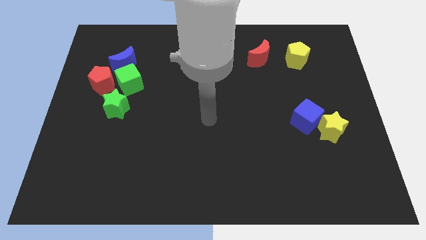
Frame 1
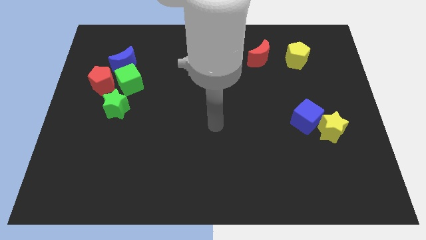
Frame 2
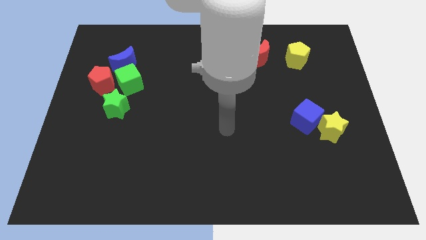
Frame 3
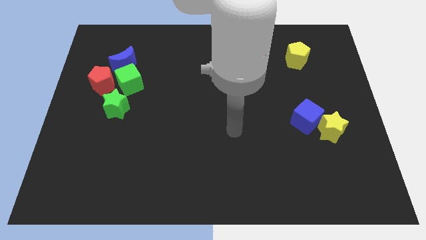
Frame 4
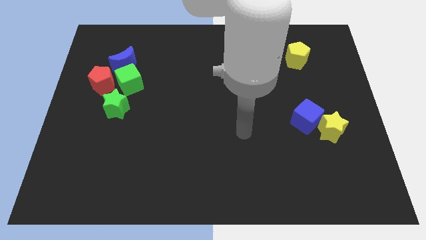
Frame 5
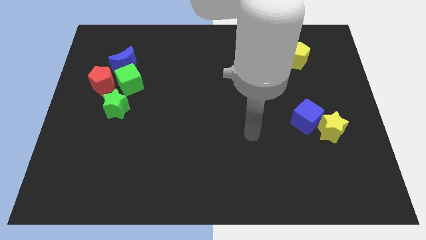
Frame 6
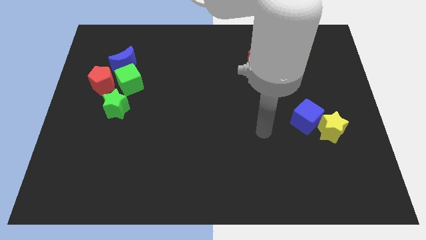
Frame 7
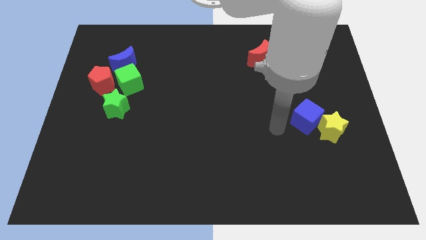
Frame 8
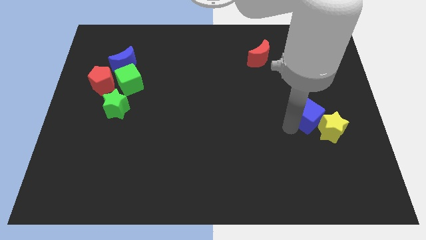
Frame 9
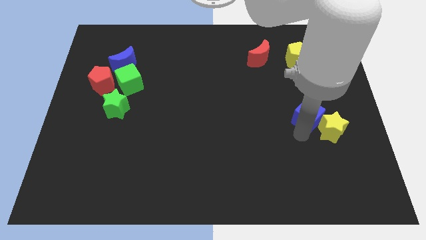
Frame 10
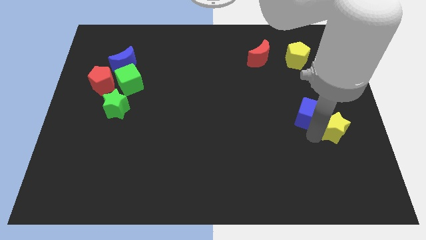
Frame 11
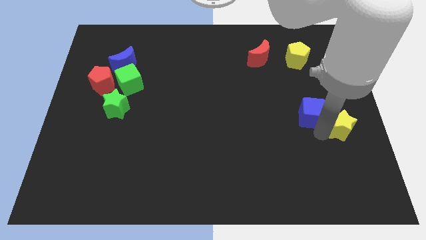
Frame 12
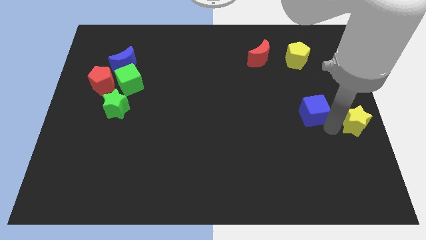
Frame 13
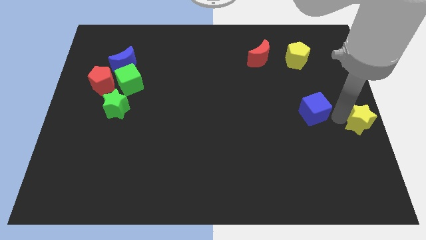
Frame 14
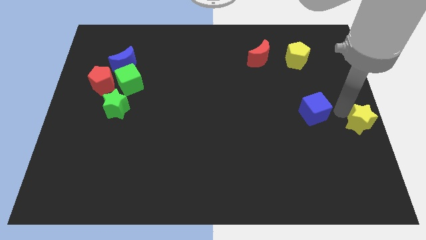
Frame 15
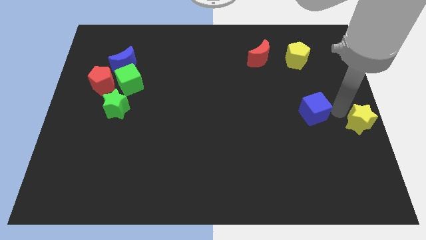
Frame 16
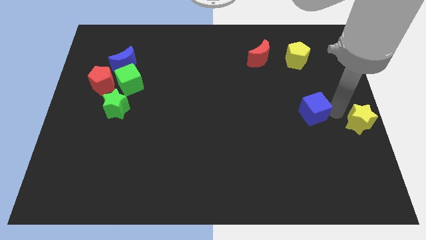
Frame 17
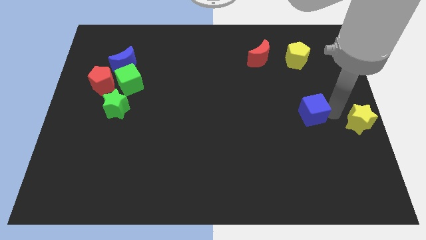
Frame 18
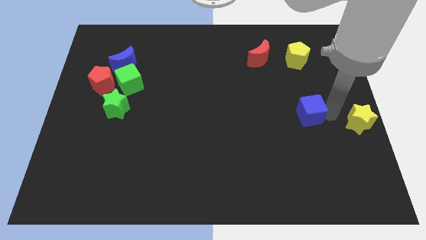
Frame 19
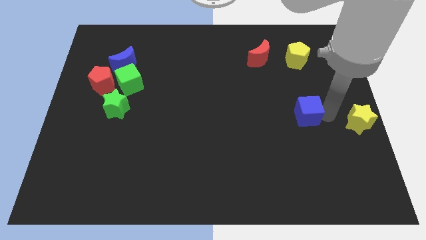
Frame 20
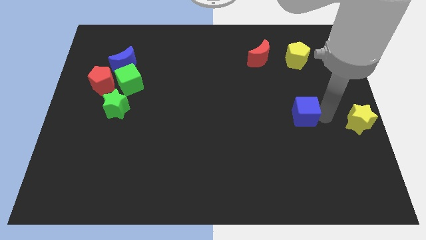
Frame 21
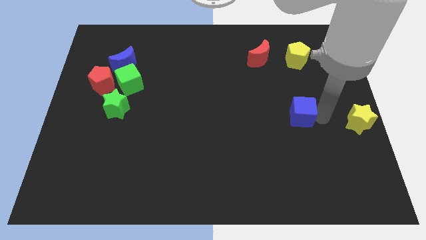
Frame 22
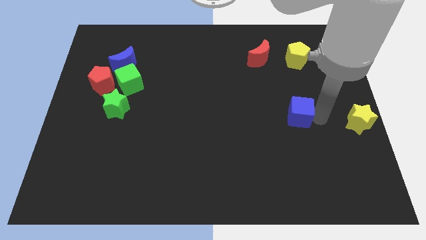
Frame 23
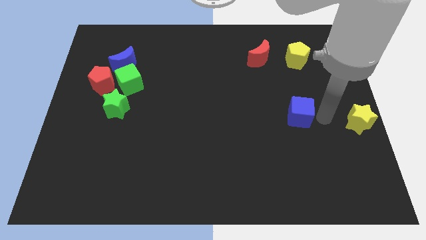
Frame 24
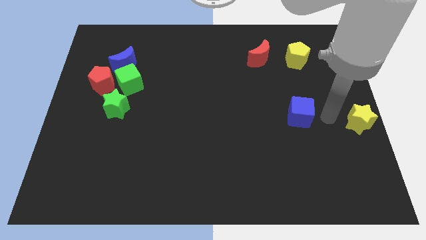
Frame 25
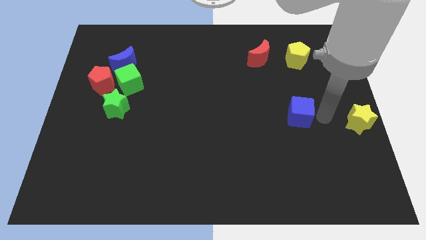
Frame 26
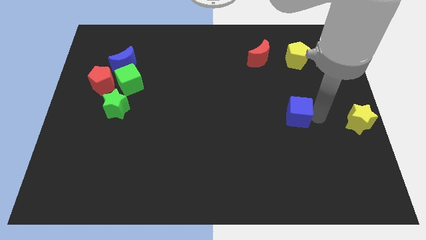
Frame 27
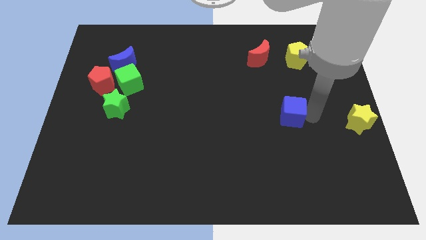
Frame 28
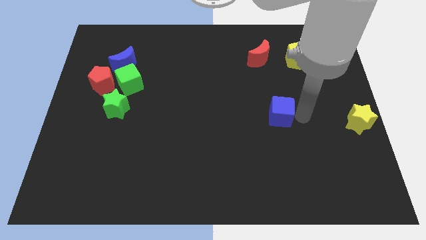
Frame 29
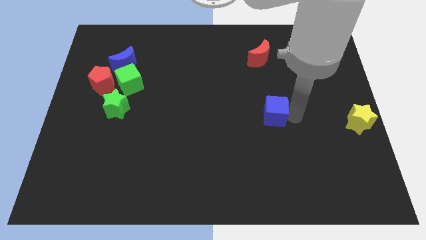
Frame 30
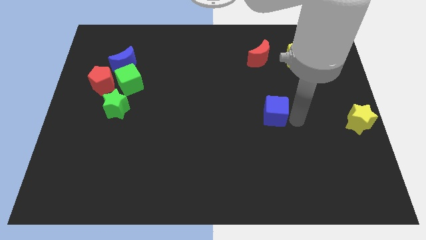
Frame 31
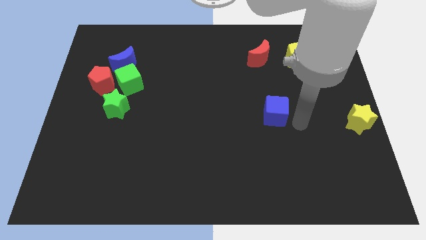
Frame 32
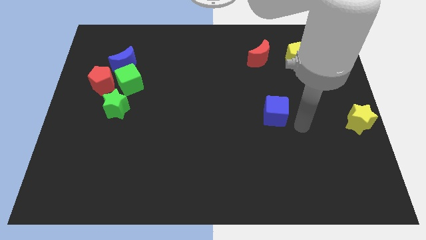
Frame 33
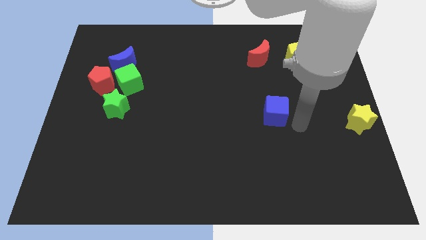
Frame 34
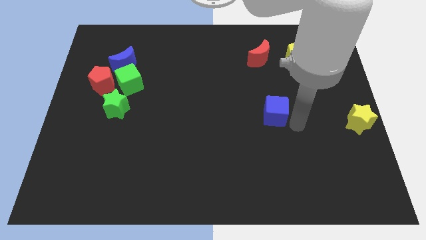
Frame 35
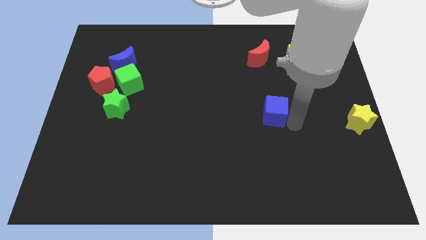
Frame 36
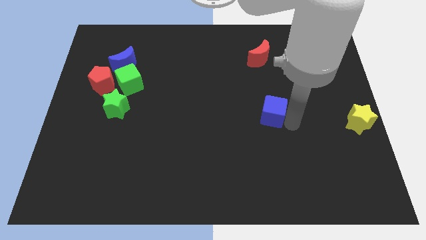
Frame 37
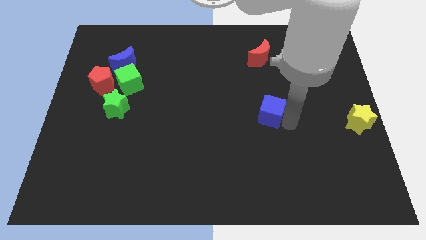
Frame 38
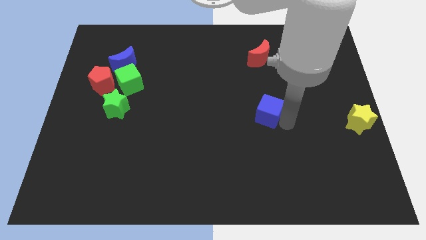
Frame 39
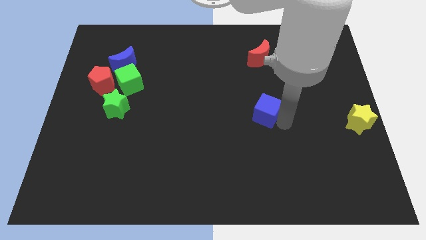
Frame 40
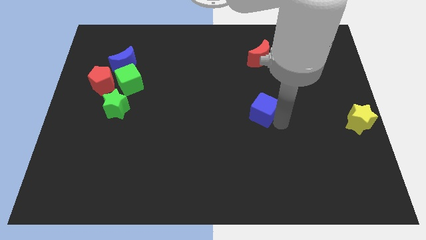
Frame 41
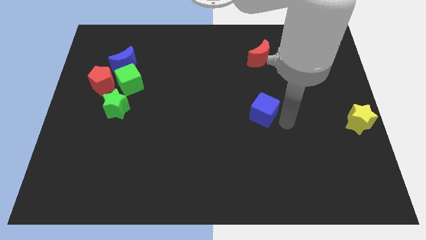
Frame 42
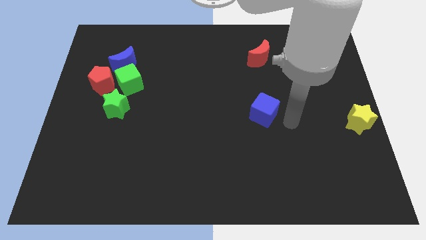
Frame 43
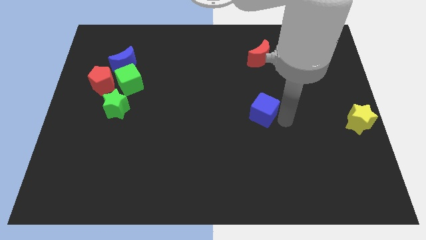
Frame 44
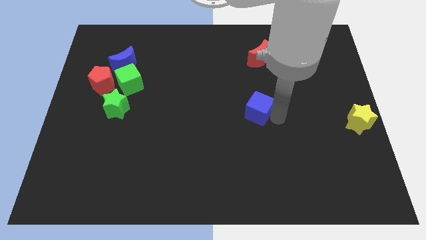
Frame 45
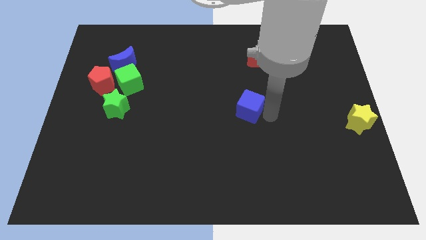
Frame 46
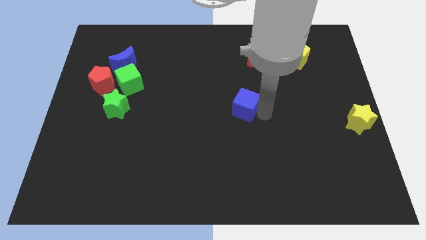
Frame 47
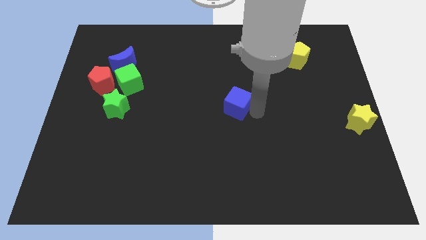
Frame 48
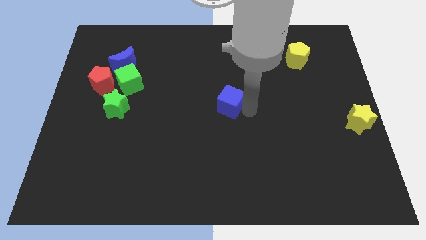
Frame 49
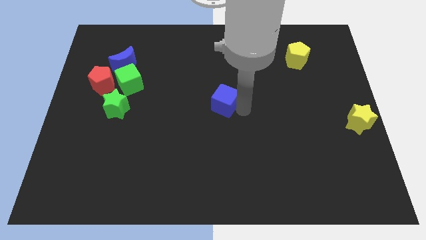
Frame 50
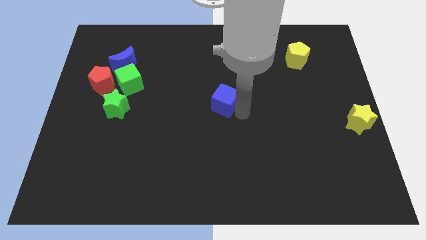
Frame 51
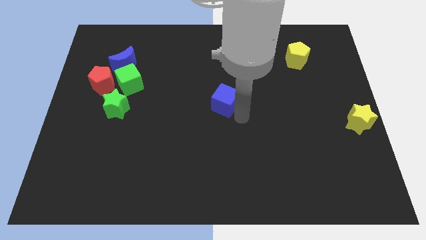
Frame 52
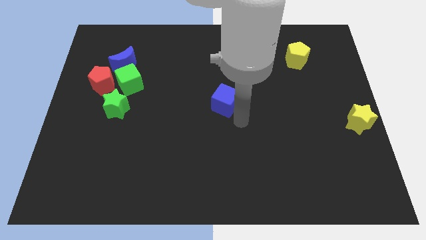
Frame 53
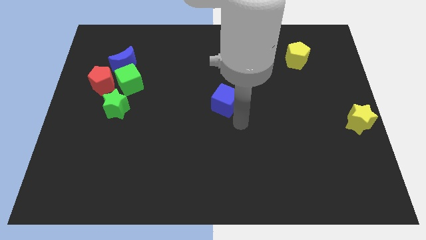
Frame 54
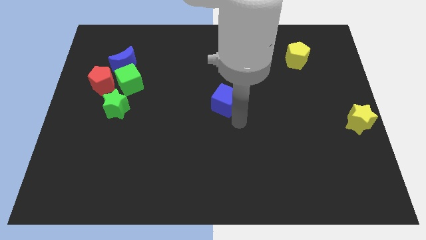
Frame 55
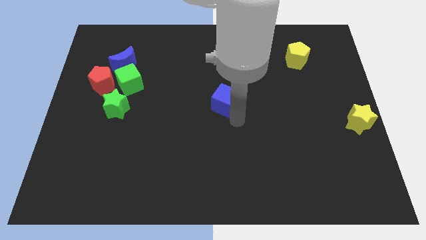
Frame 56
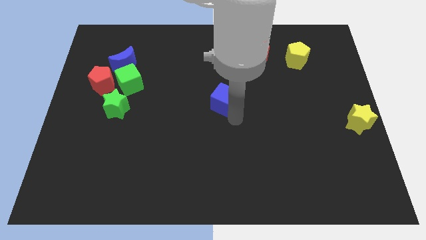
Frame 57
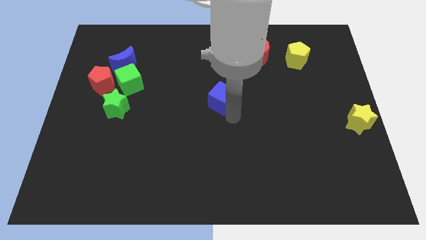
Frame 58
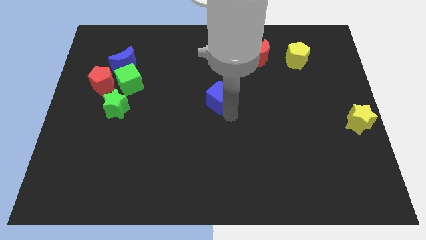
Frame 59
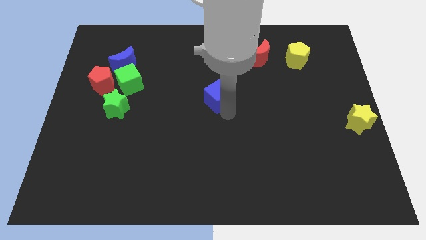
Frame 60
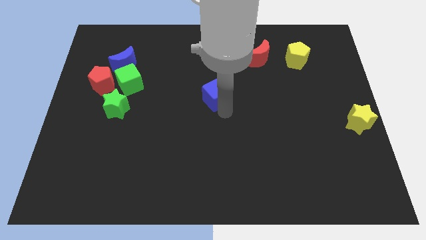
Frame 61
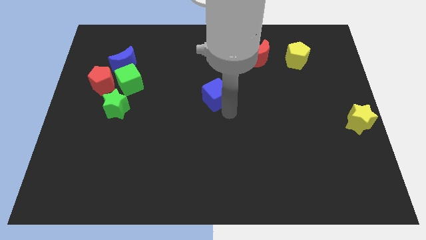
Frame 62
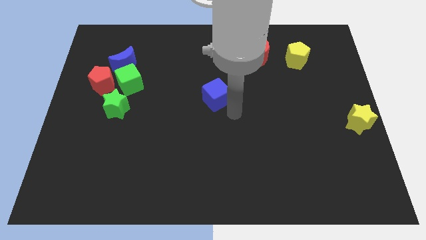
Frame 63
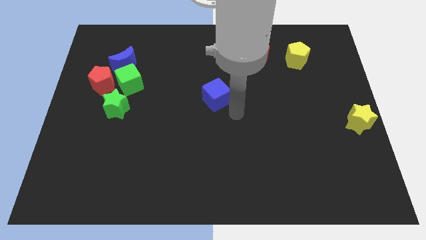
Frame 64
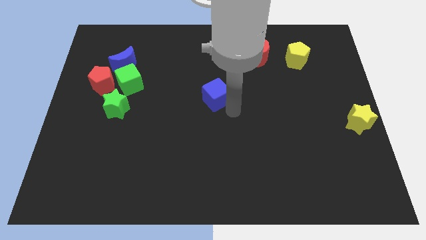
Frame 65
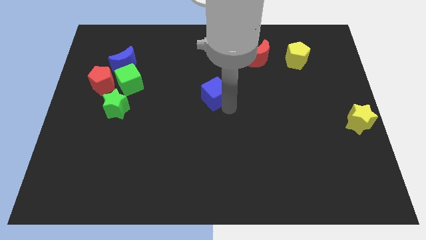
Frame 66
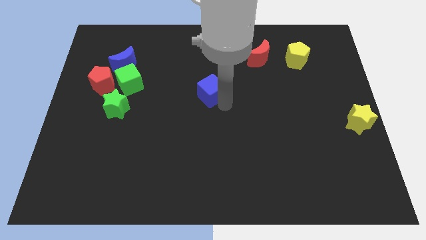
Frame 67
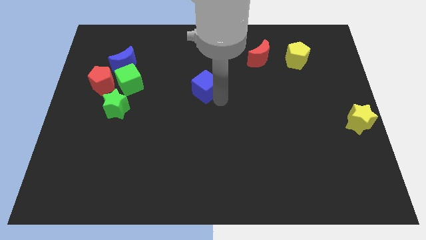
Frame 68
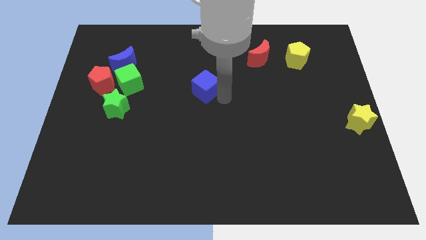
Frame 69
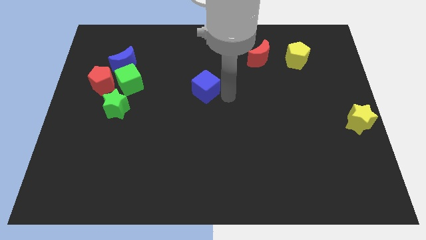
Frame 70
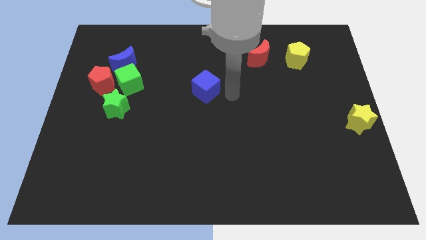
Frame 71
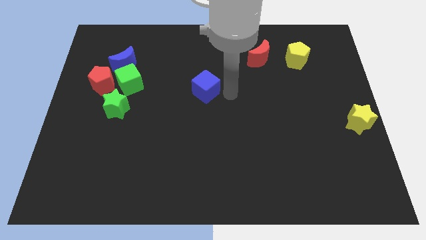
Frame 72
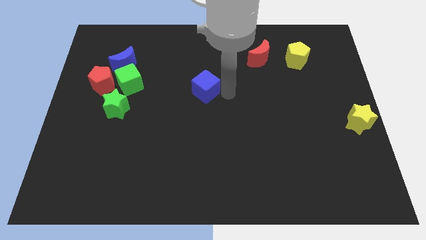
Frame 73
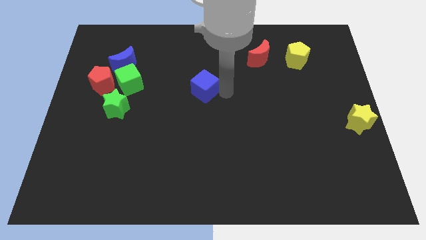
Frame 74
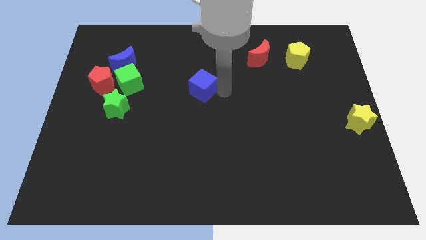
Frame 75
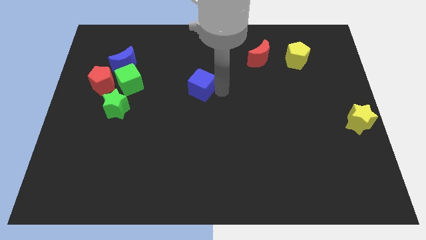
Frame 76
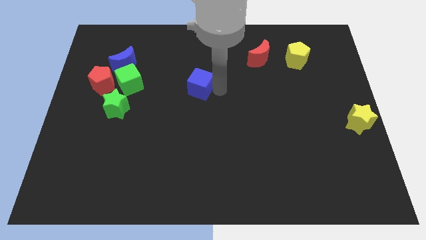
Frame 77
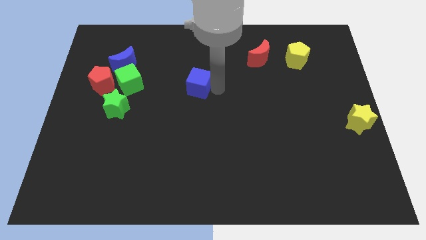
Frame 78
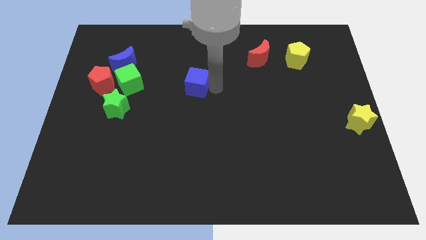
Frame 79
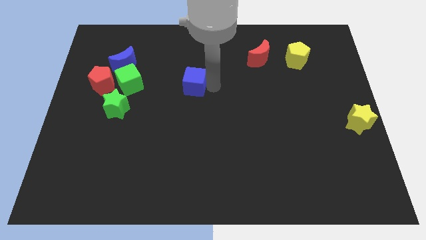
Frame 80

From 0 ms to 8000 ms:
put the blue cube to the right of the green cube

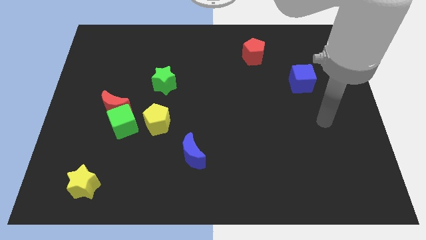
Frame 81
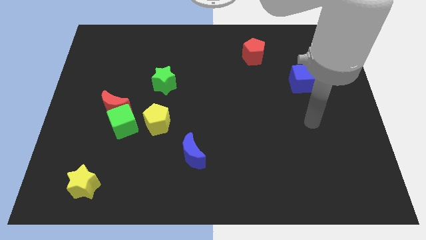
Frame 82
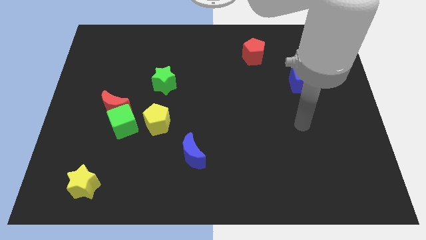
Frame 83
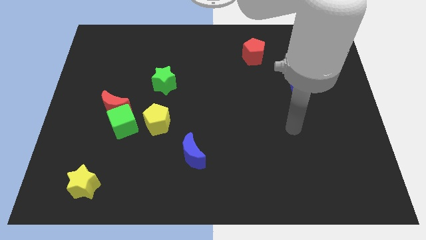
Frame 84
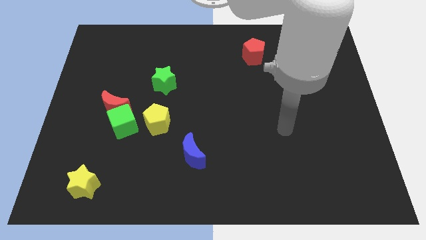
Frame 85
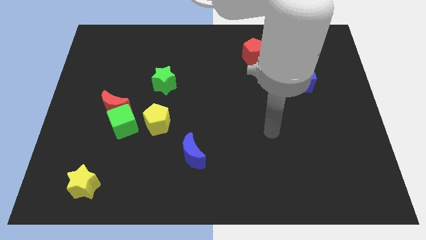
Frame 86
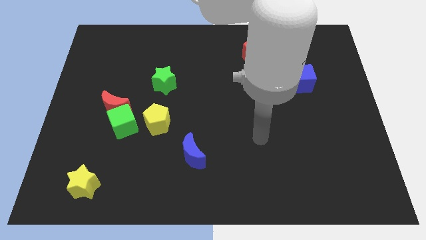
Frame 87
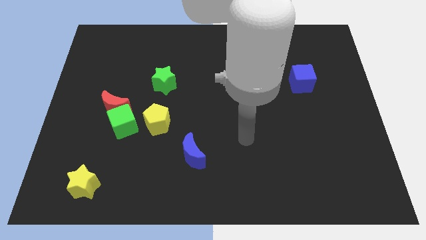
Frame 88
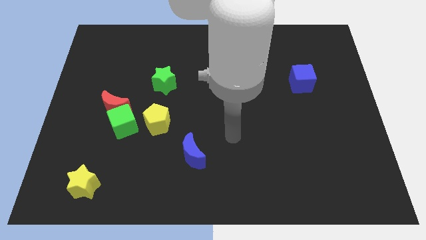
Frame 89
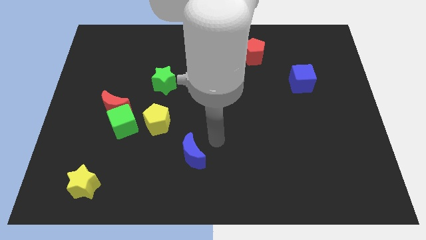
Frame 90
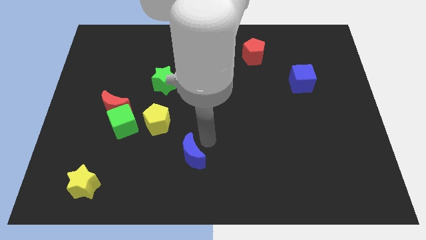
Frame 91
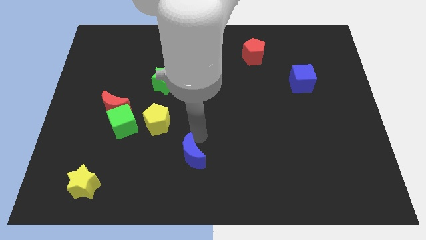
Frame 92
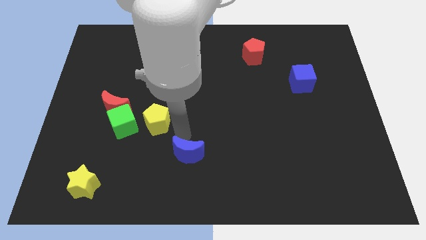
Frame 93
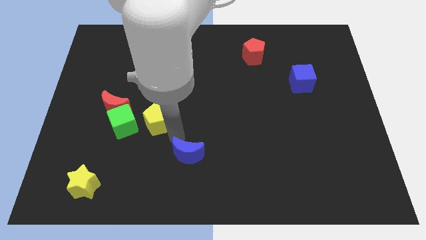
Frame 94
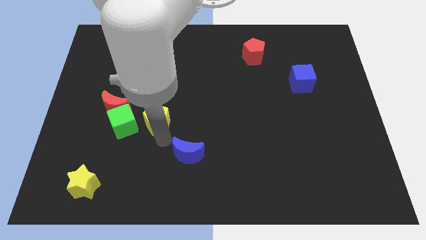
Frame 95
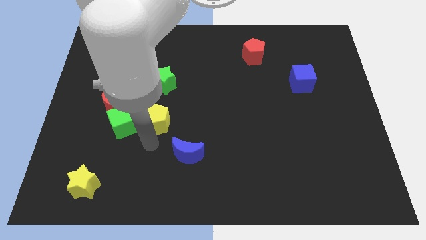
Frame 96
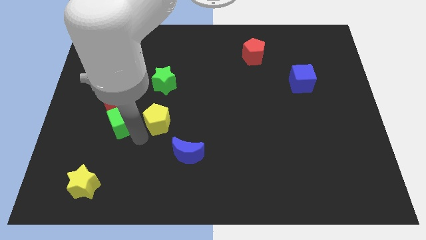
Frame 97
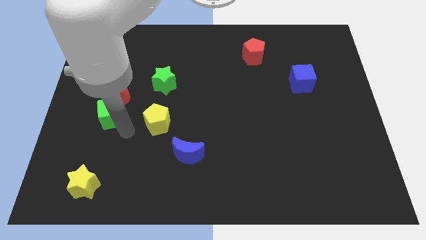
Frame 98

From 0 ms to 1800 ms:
slide the red moon just left of the green star
